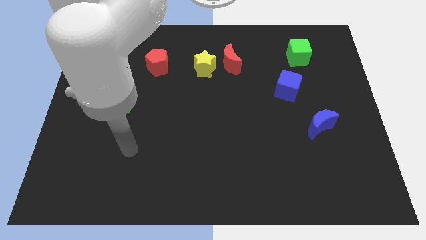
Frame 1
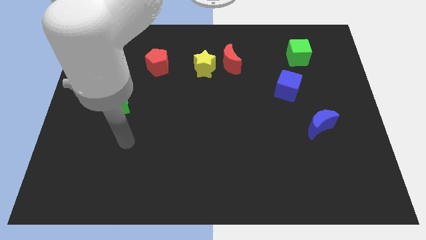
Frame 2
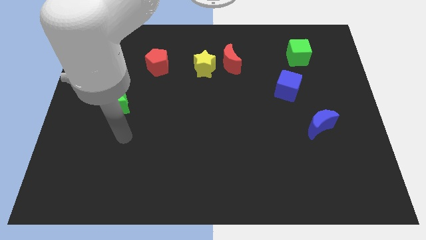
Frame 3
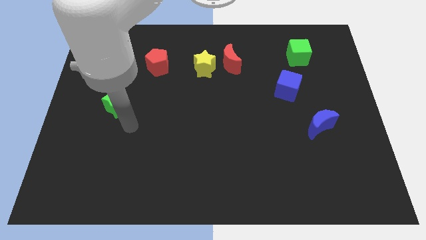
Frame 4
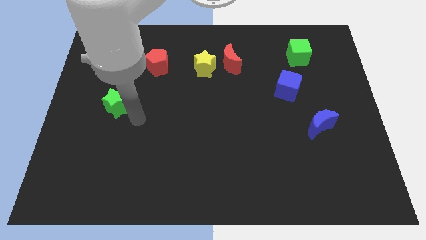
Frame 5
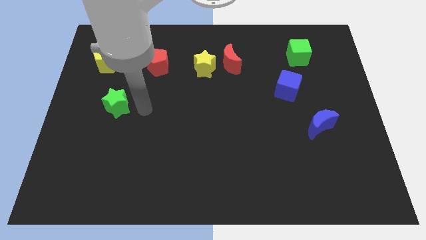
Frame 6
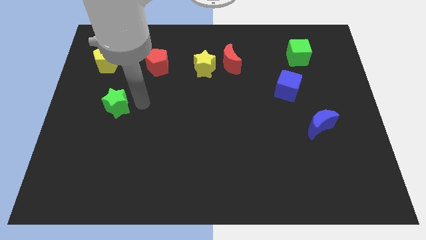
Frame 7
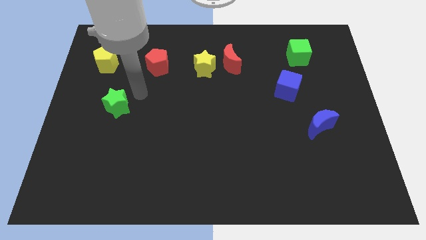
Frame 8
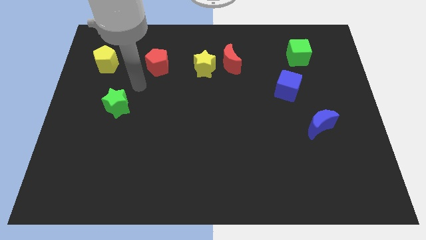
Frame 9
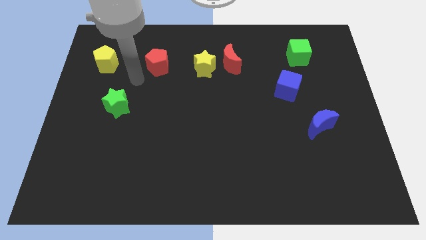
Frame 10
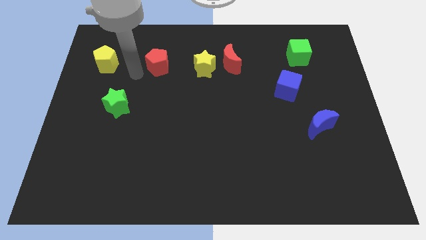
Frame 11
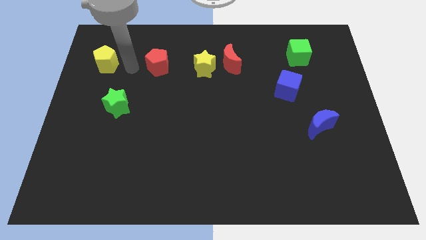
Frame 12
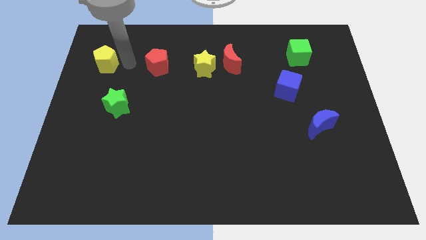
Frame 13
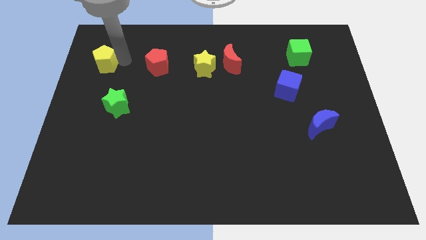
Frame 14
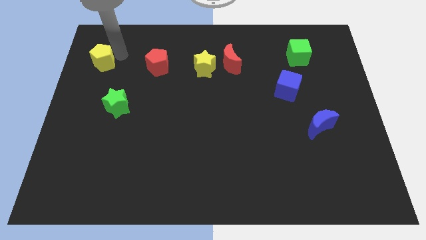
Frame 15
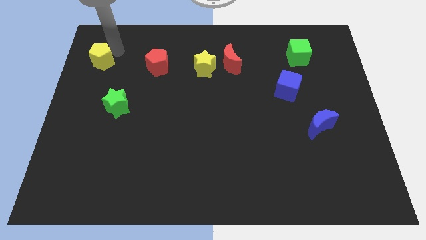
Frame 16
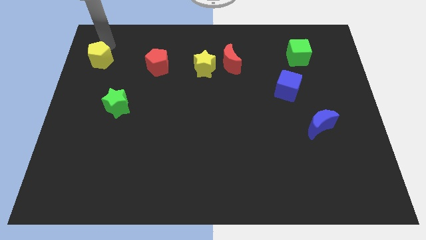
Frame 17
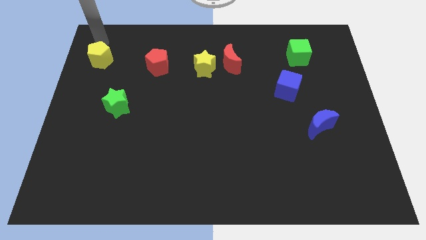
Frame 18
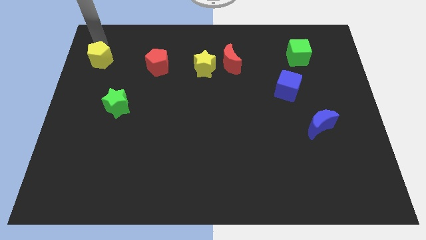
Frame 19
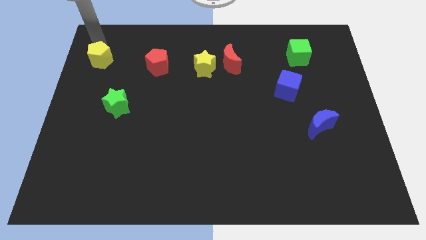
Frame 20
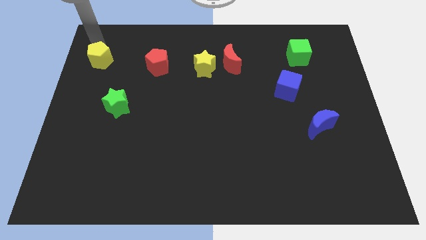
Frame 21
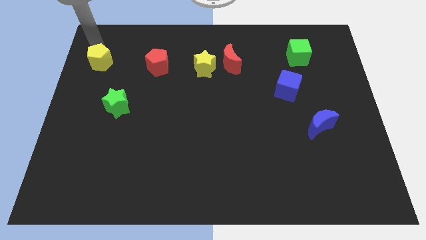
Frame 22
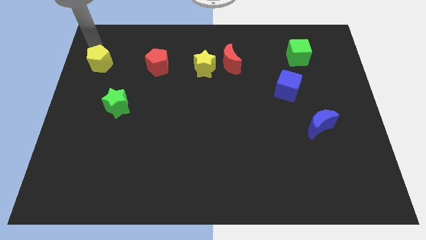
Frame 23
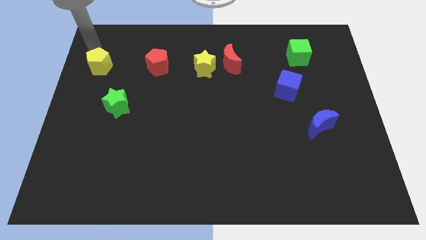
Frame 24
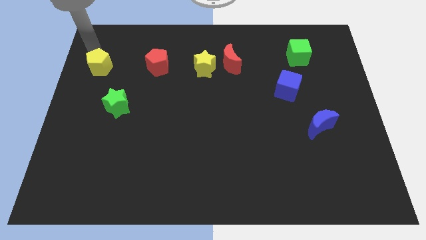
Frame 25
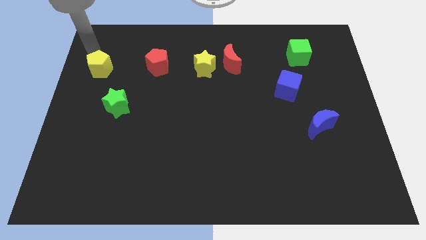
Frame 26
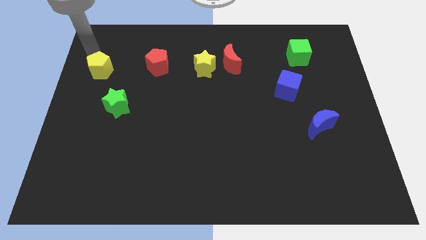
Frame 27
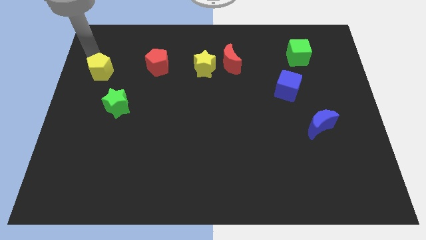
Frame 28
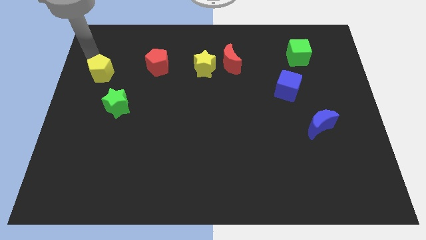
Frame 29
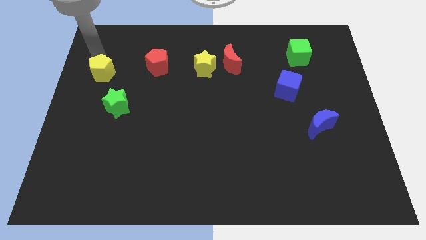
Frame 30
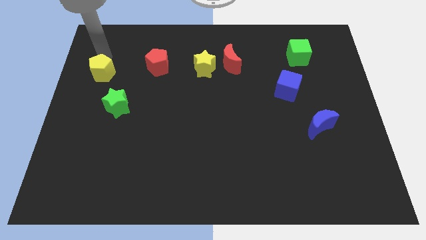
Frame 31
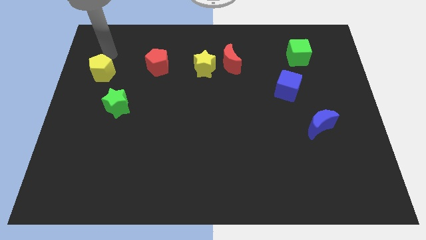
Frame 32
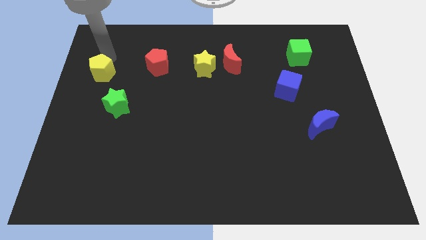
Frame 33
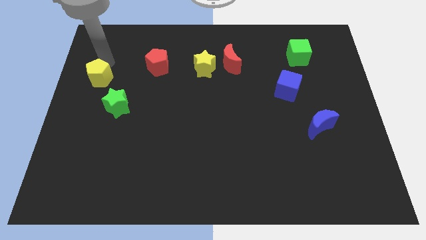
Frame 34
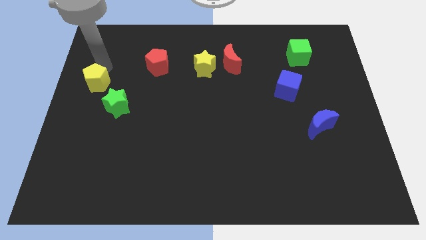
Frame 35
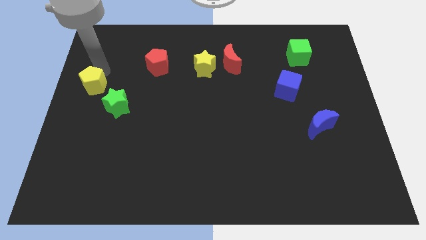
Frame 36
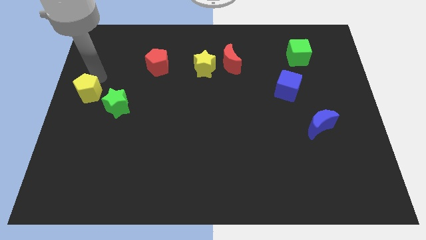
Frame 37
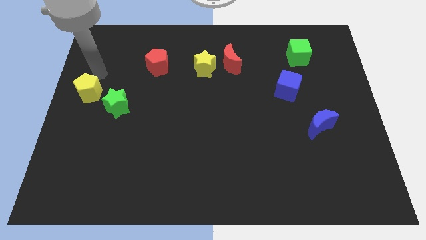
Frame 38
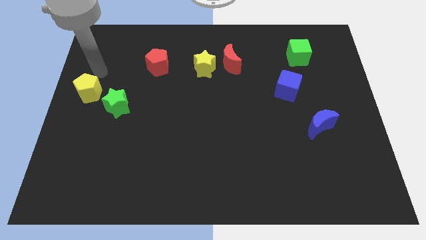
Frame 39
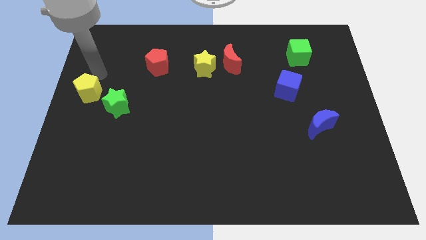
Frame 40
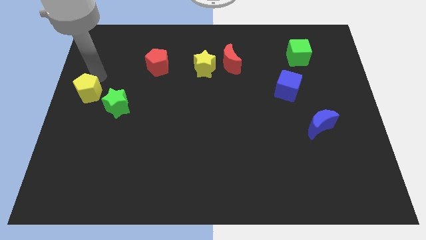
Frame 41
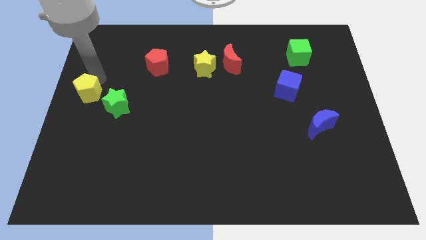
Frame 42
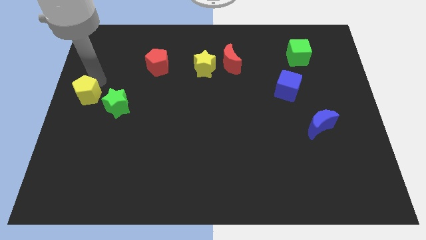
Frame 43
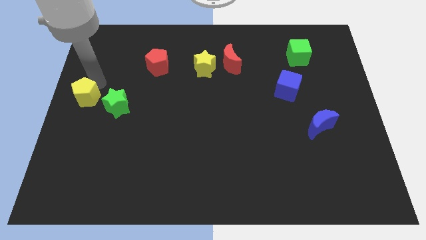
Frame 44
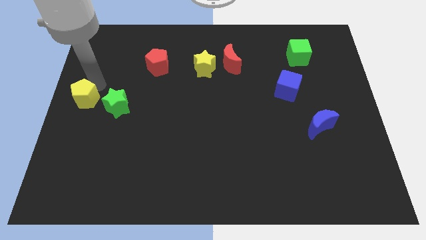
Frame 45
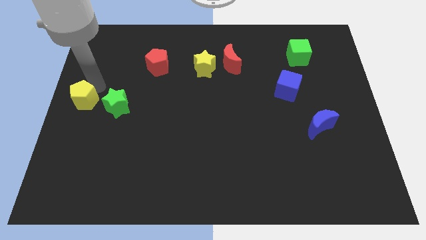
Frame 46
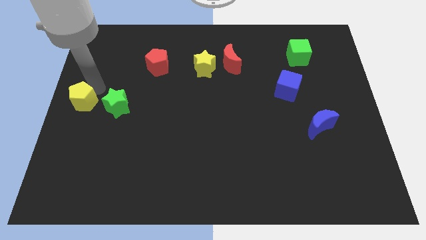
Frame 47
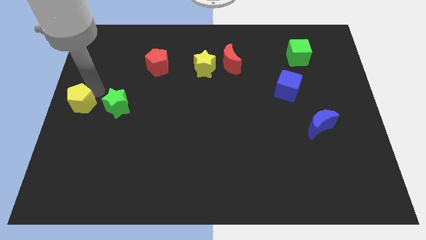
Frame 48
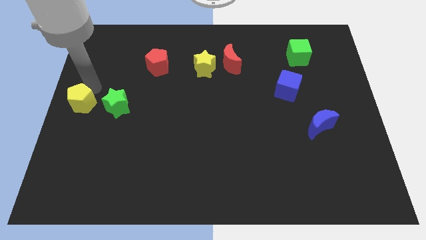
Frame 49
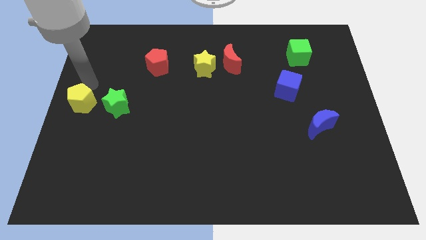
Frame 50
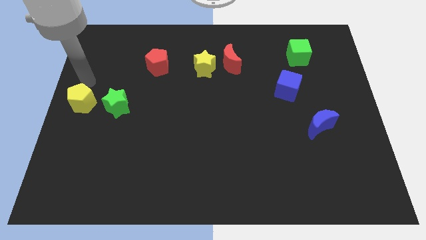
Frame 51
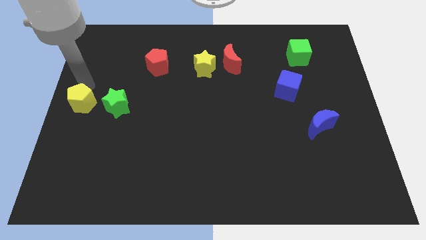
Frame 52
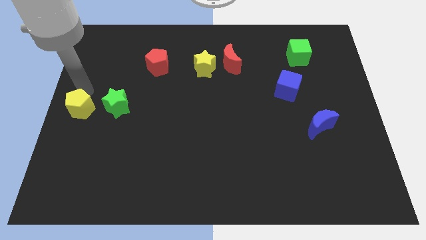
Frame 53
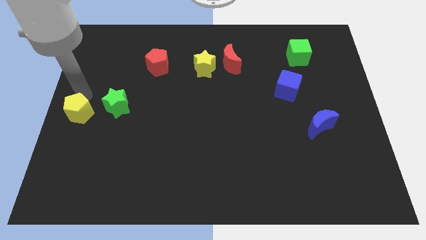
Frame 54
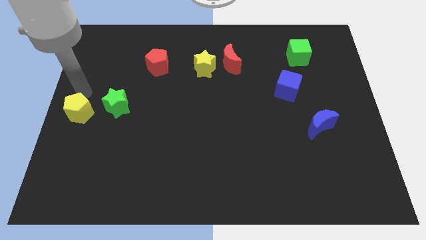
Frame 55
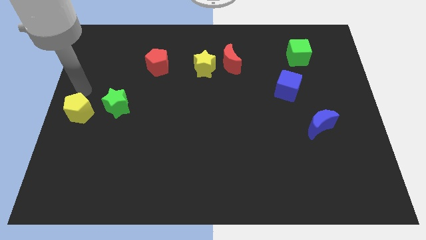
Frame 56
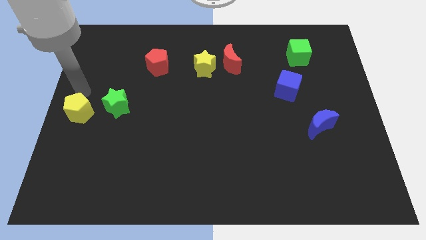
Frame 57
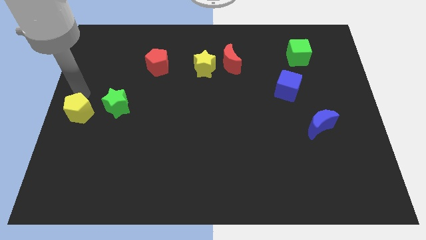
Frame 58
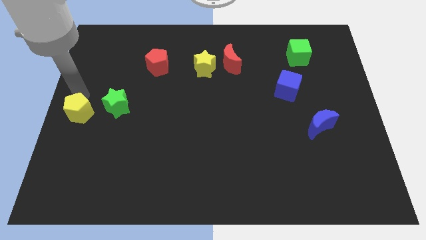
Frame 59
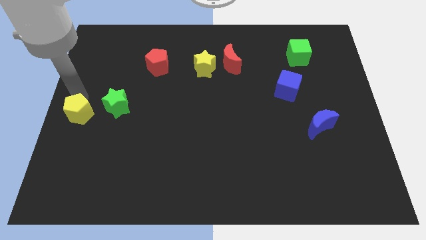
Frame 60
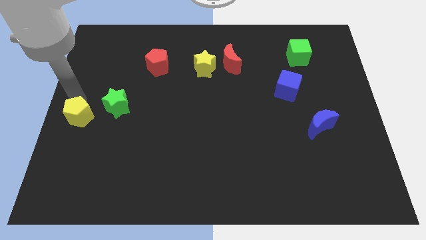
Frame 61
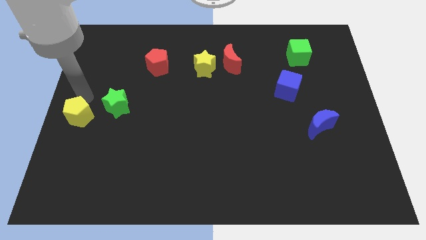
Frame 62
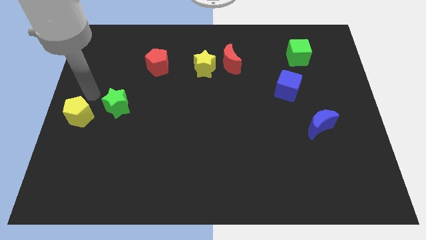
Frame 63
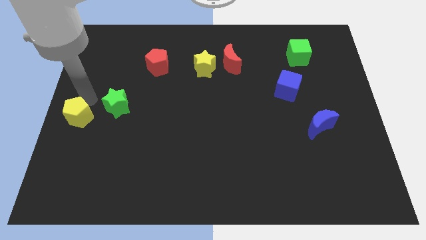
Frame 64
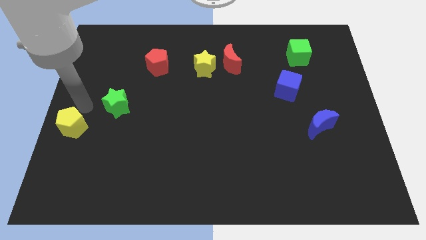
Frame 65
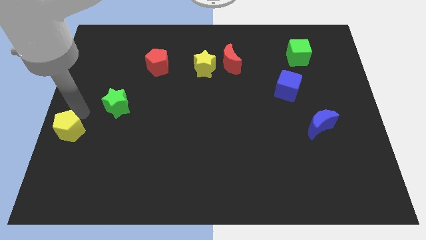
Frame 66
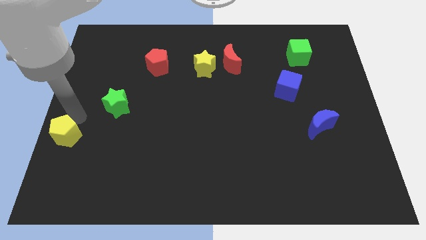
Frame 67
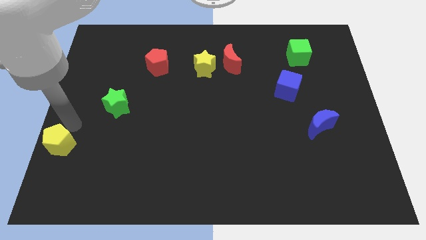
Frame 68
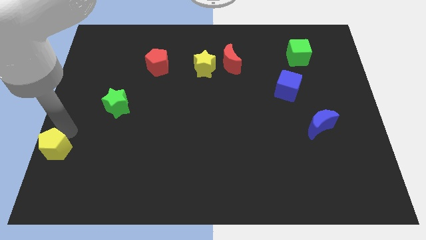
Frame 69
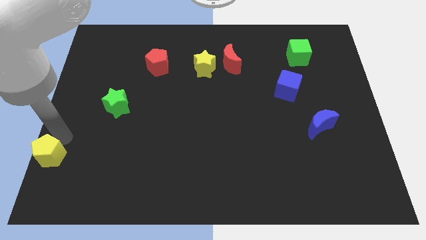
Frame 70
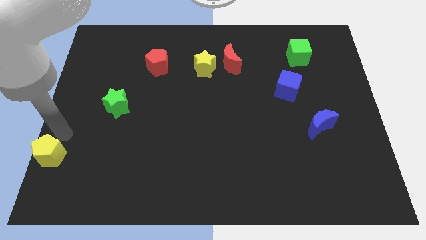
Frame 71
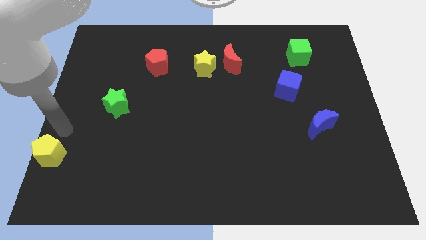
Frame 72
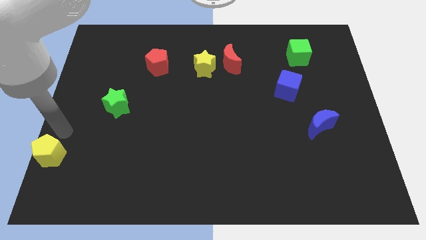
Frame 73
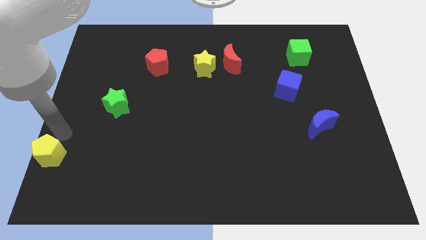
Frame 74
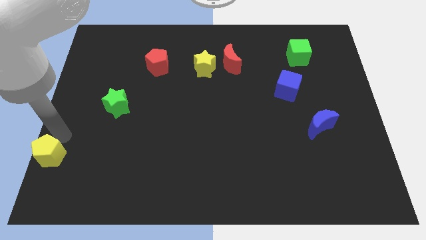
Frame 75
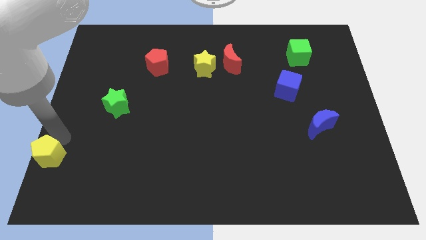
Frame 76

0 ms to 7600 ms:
push the yellow pentagon to the bottom left of the board
